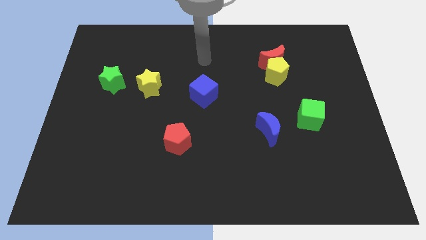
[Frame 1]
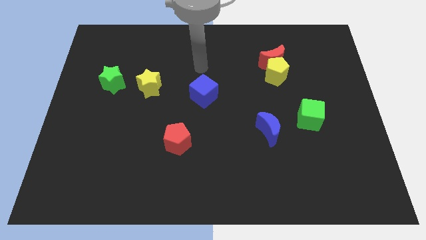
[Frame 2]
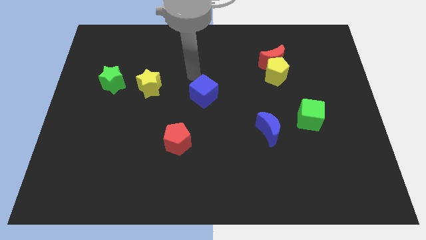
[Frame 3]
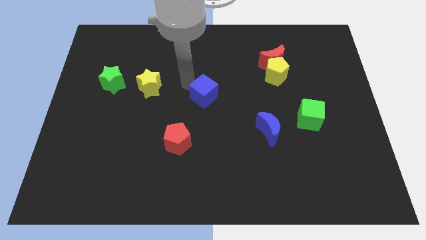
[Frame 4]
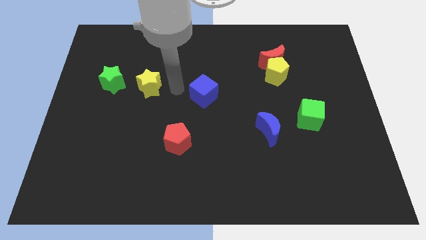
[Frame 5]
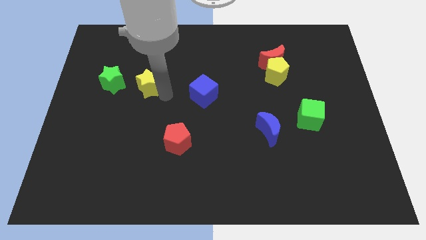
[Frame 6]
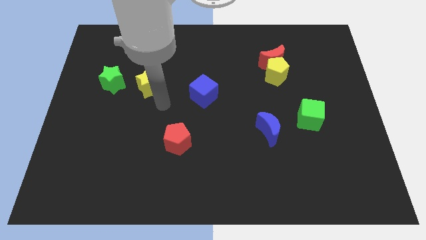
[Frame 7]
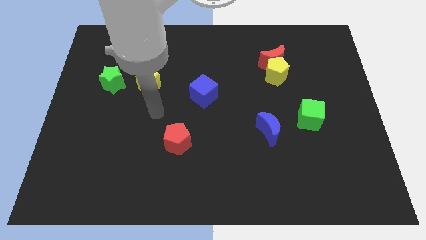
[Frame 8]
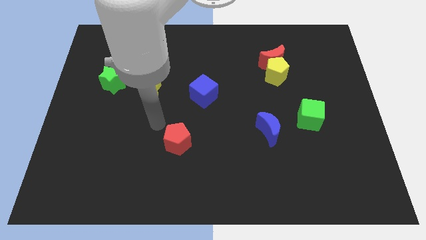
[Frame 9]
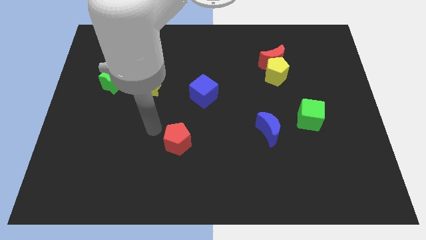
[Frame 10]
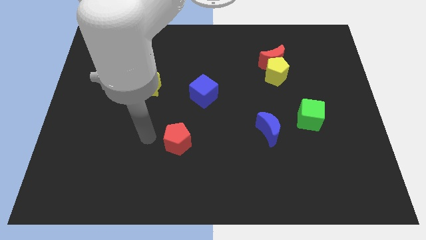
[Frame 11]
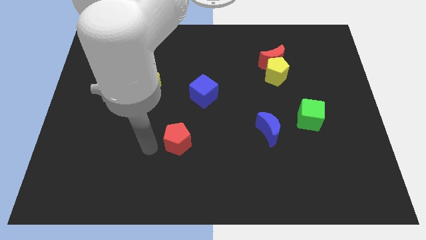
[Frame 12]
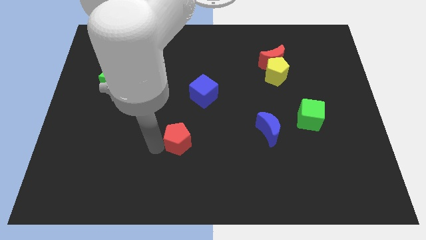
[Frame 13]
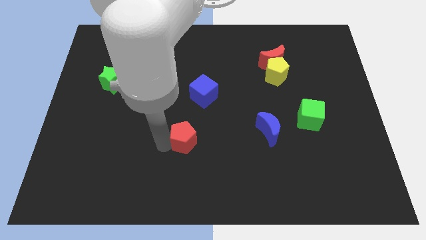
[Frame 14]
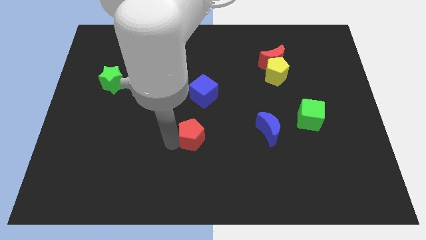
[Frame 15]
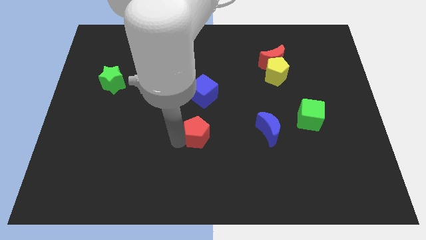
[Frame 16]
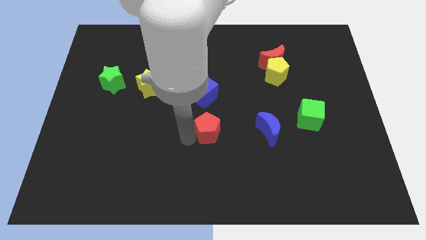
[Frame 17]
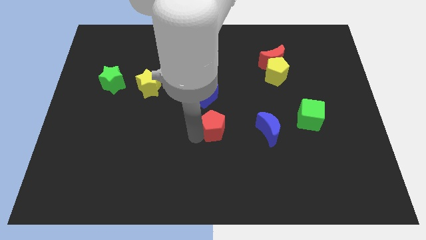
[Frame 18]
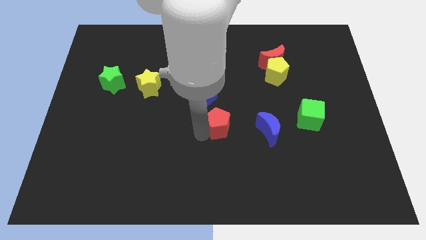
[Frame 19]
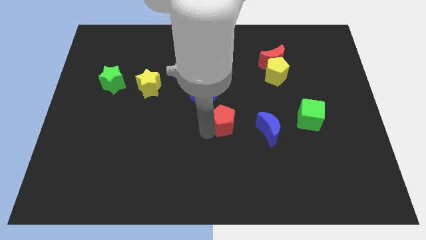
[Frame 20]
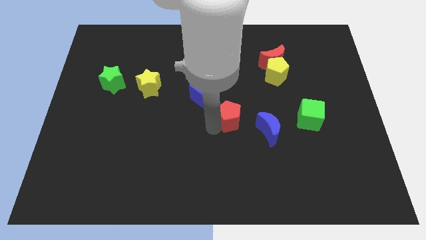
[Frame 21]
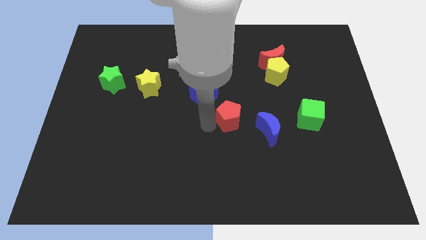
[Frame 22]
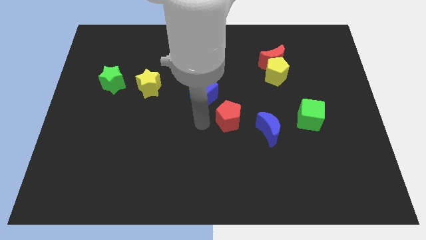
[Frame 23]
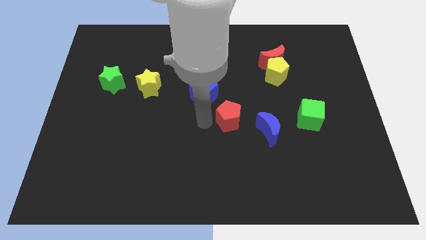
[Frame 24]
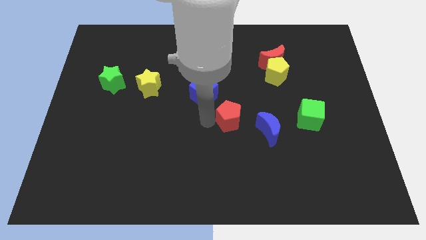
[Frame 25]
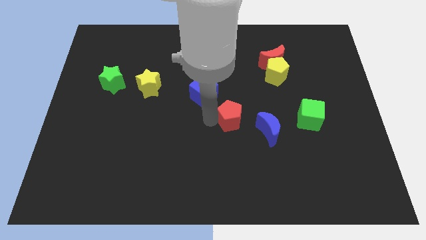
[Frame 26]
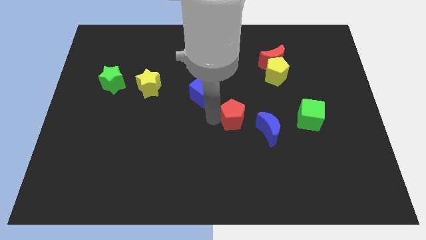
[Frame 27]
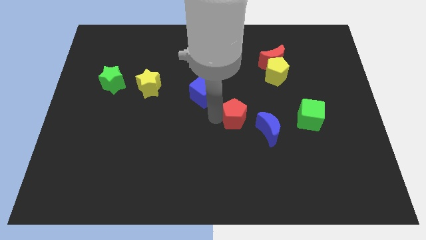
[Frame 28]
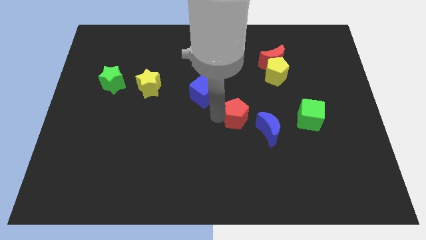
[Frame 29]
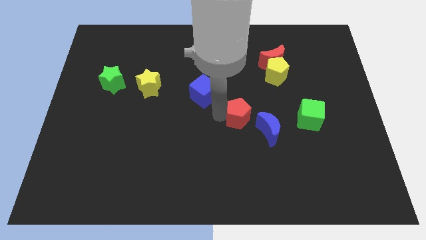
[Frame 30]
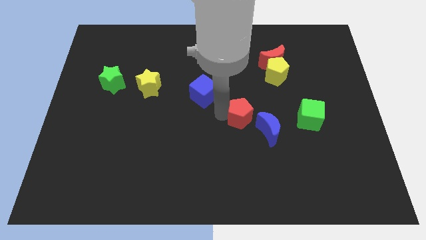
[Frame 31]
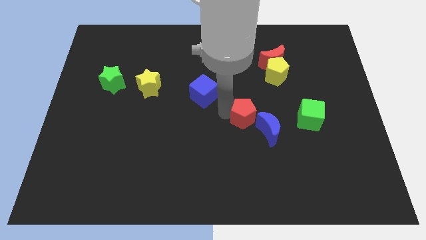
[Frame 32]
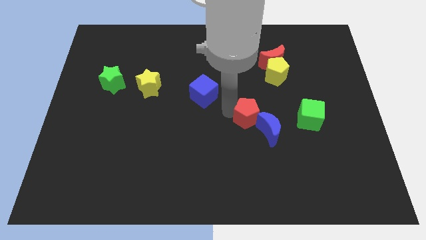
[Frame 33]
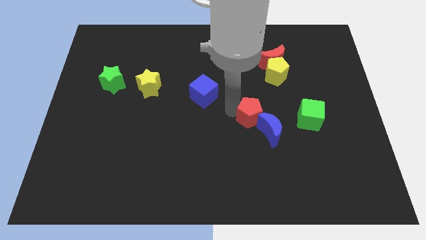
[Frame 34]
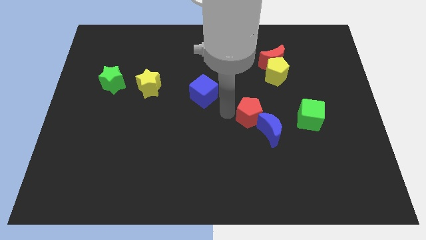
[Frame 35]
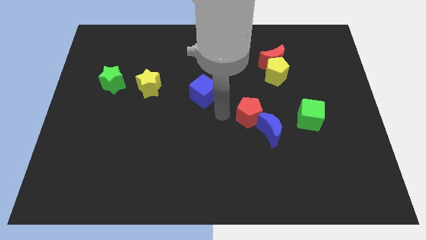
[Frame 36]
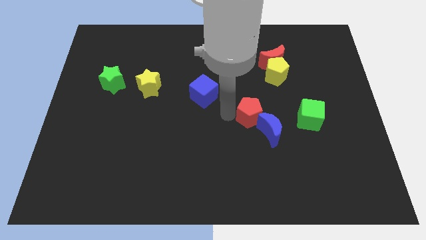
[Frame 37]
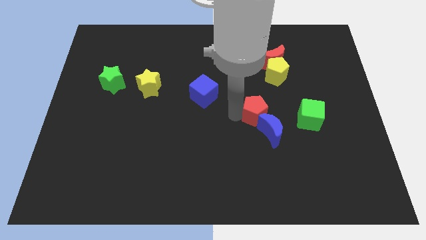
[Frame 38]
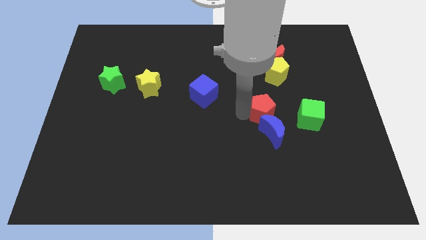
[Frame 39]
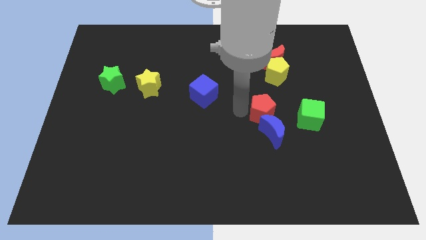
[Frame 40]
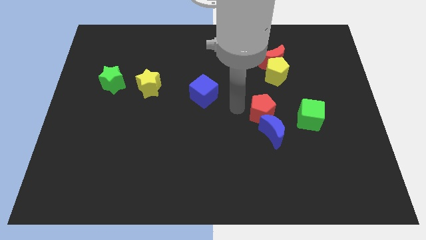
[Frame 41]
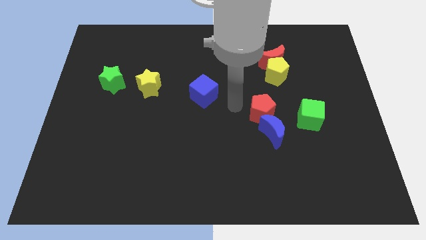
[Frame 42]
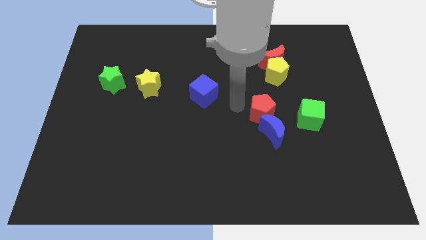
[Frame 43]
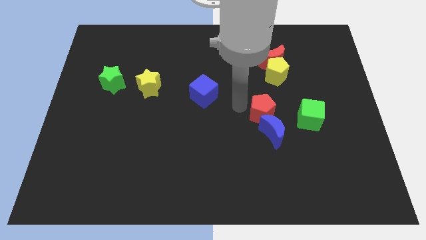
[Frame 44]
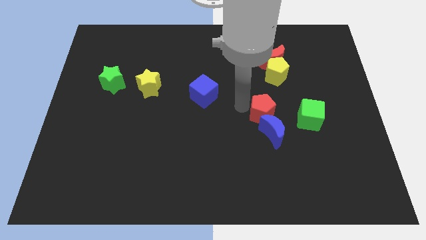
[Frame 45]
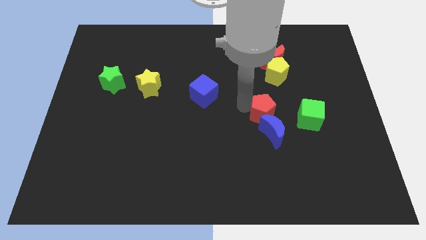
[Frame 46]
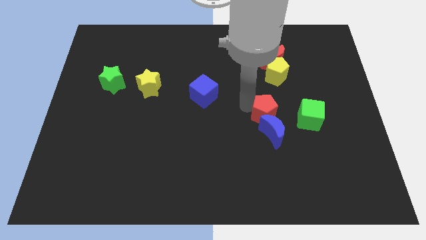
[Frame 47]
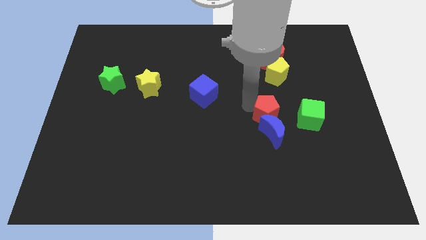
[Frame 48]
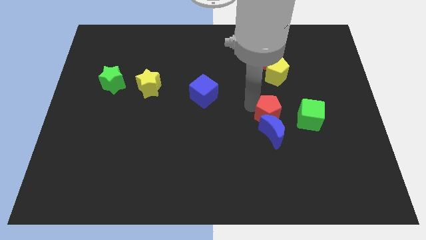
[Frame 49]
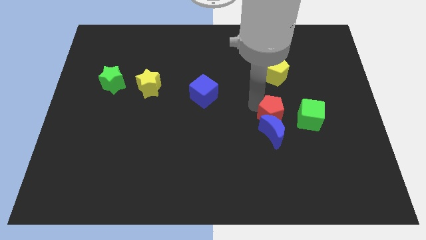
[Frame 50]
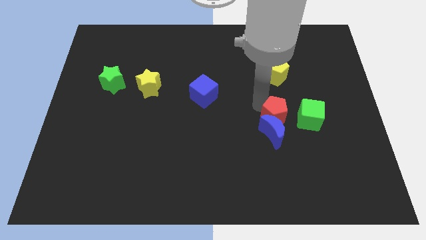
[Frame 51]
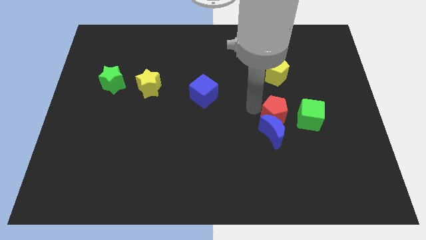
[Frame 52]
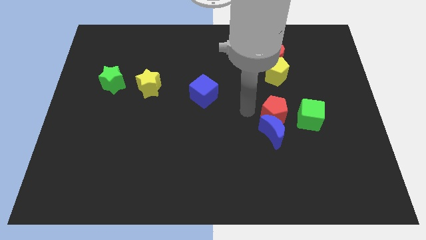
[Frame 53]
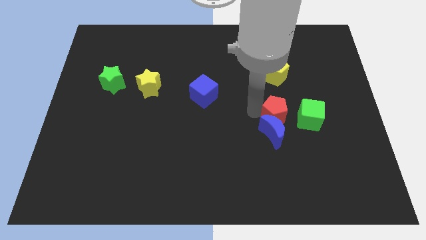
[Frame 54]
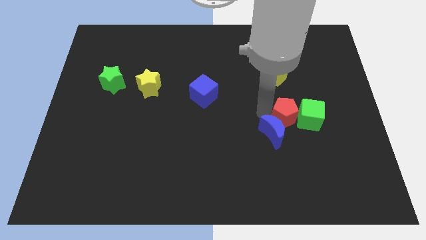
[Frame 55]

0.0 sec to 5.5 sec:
put the red pentagon close to the green cube

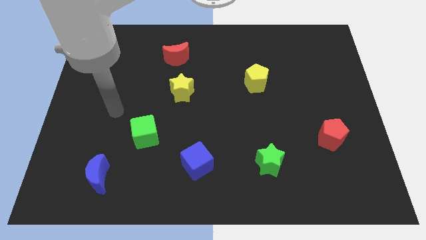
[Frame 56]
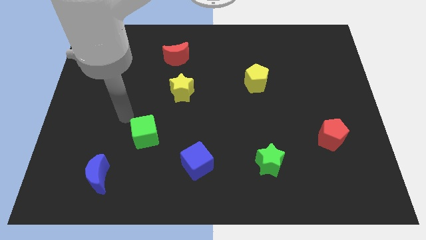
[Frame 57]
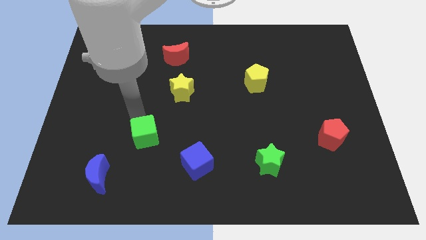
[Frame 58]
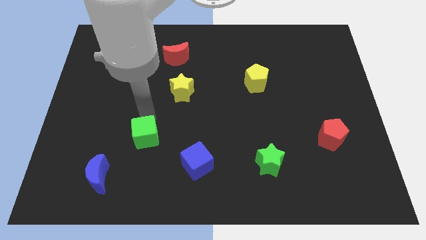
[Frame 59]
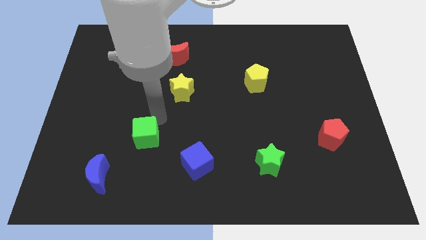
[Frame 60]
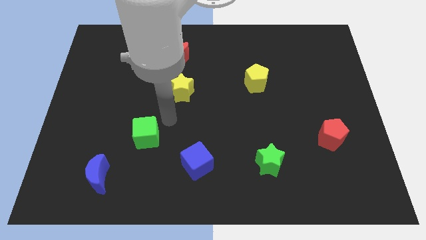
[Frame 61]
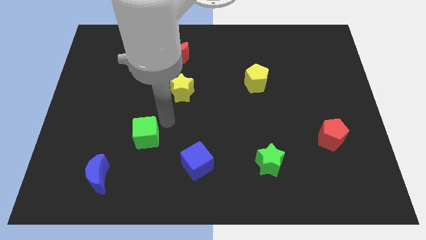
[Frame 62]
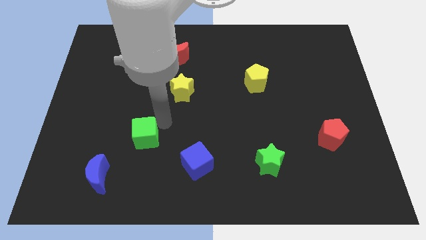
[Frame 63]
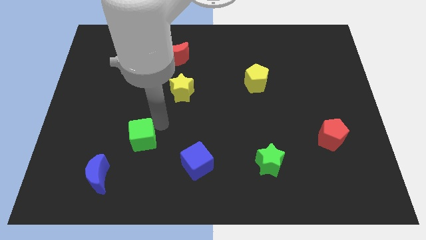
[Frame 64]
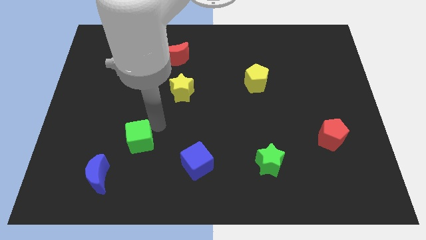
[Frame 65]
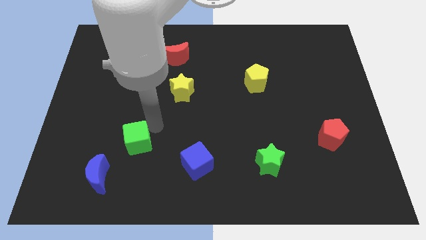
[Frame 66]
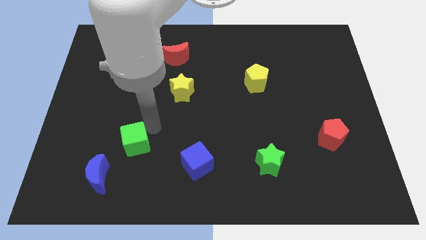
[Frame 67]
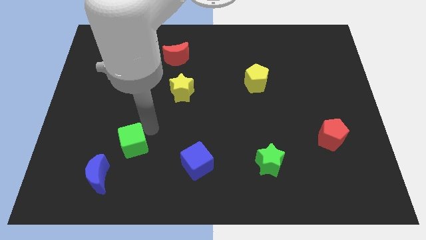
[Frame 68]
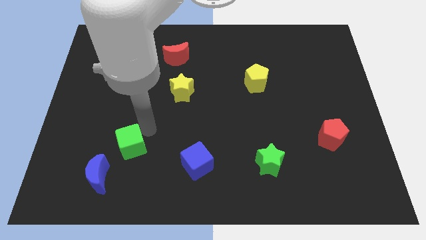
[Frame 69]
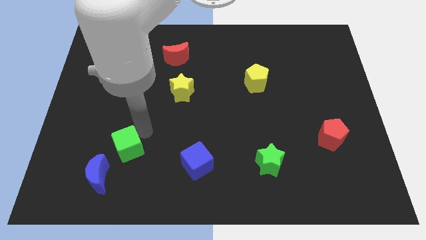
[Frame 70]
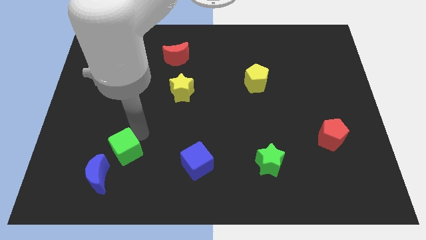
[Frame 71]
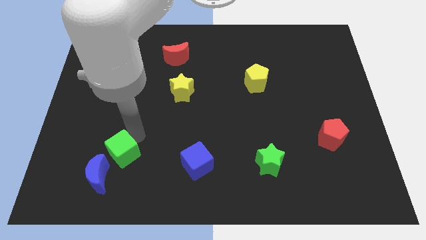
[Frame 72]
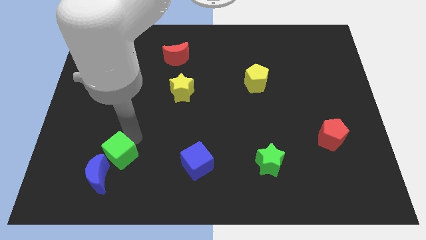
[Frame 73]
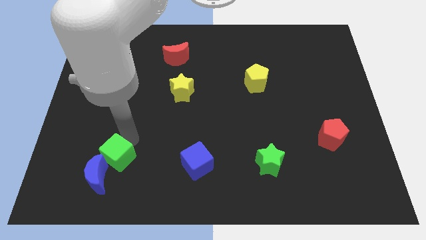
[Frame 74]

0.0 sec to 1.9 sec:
slide the green cube towards the blue moon
